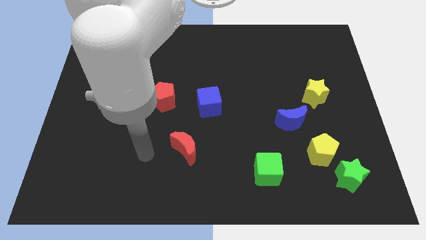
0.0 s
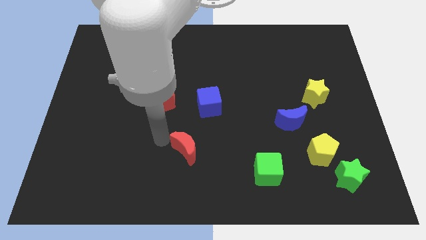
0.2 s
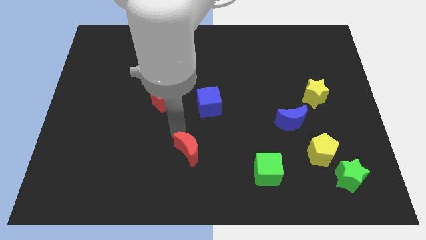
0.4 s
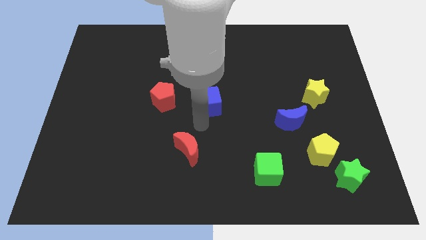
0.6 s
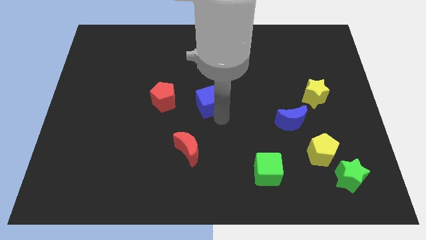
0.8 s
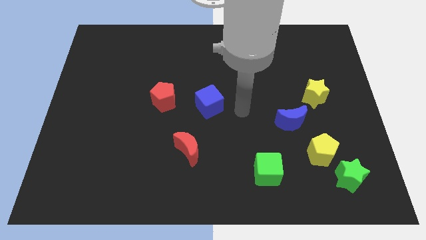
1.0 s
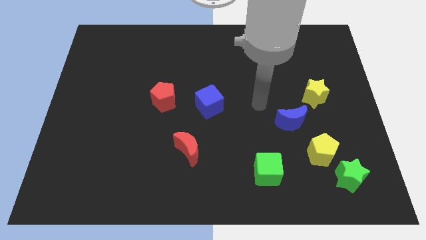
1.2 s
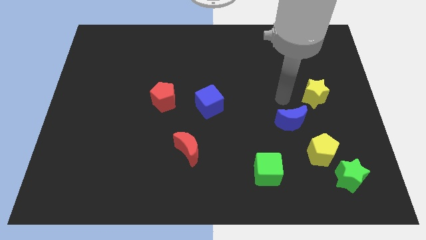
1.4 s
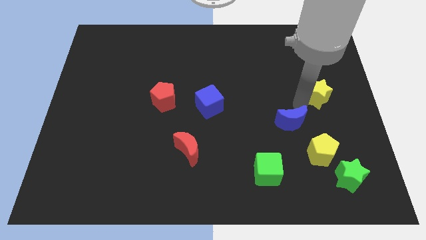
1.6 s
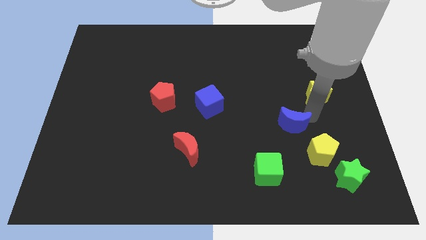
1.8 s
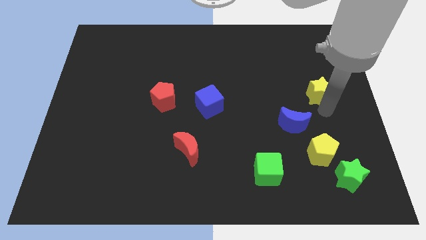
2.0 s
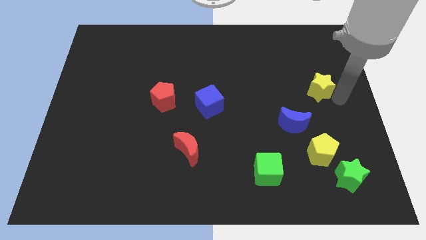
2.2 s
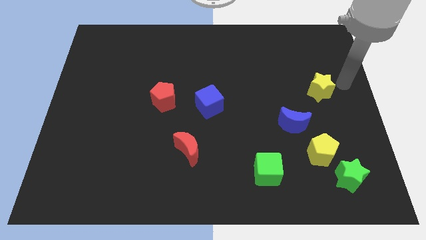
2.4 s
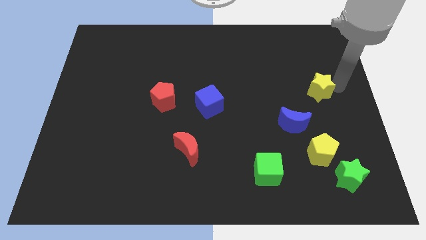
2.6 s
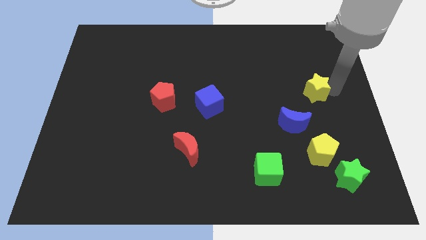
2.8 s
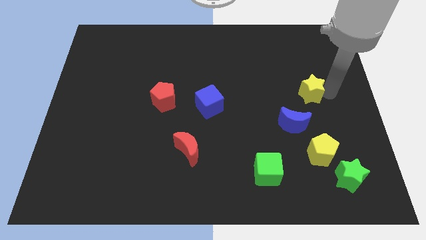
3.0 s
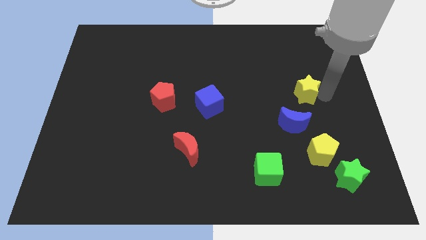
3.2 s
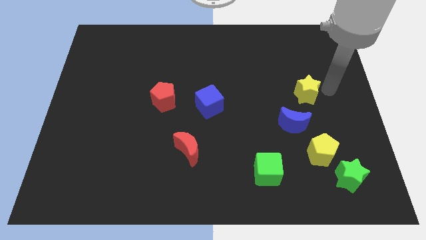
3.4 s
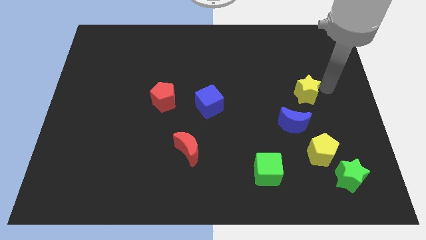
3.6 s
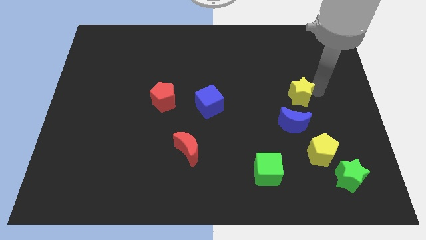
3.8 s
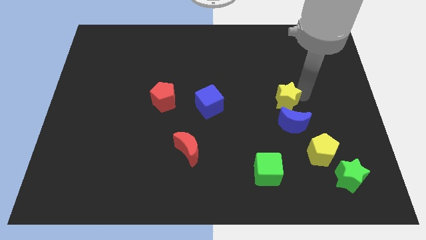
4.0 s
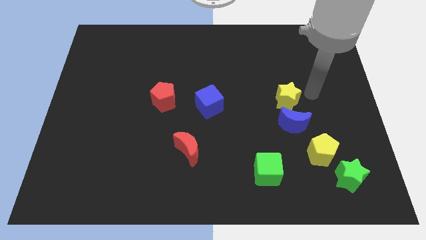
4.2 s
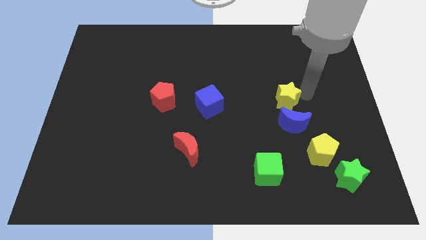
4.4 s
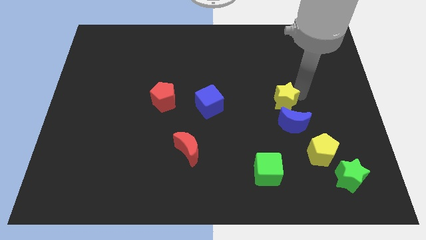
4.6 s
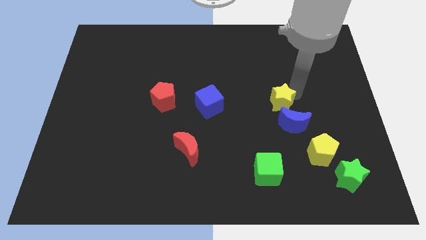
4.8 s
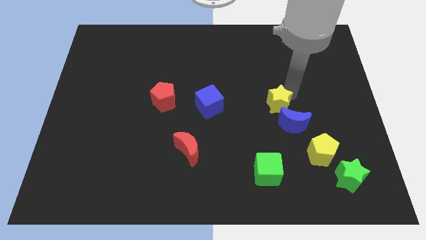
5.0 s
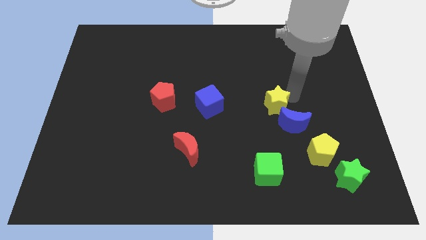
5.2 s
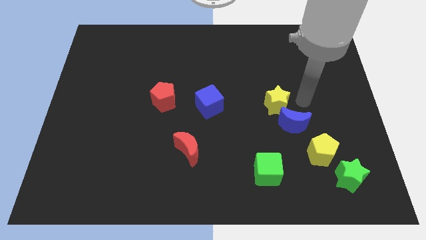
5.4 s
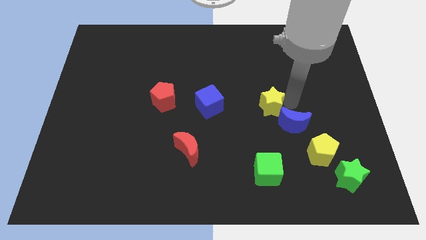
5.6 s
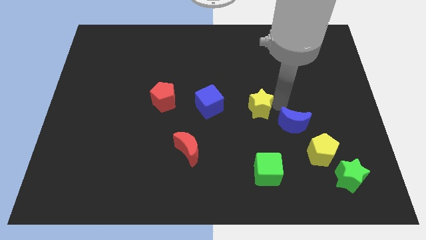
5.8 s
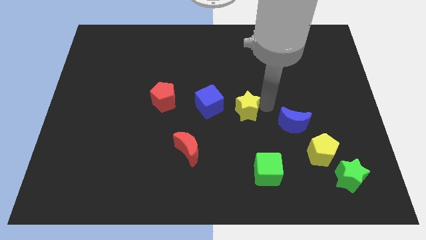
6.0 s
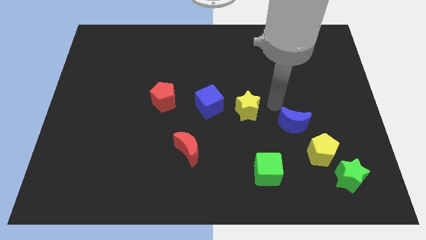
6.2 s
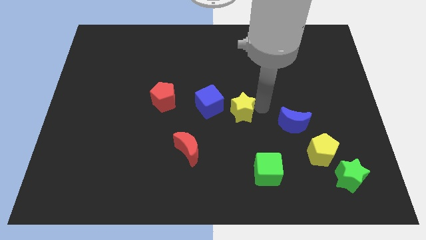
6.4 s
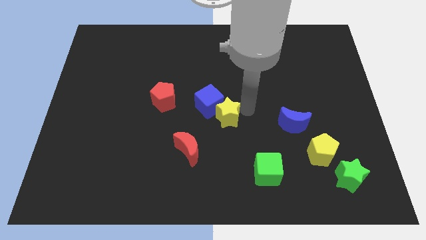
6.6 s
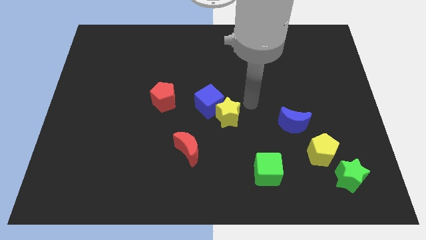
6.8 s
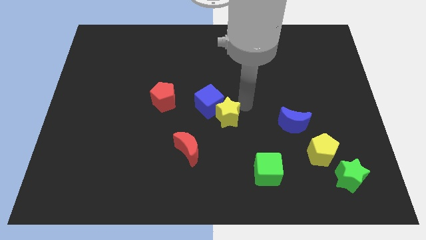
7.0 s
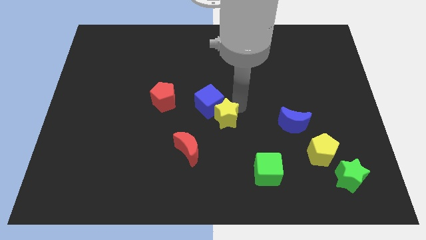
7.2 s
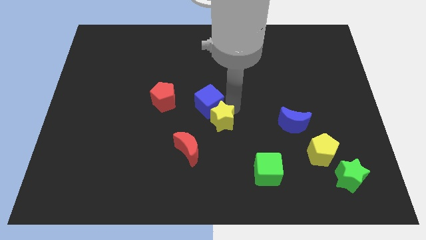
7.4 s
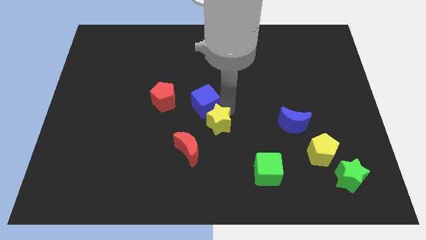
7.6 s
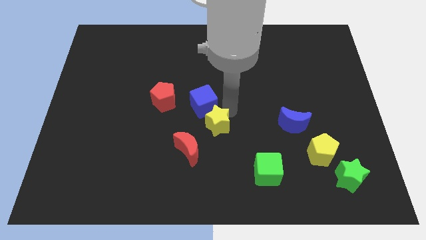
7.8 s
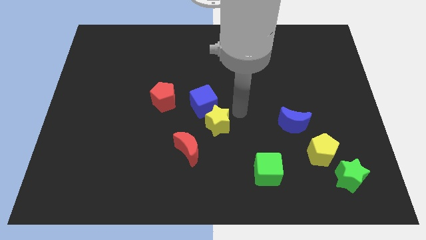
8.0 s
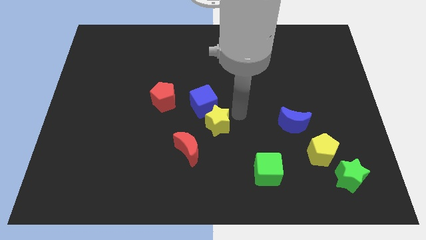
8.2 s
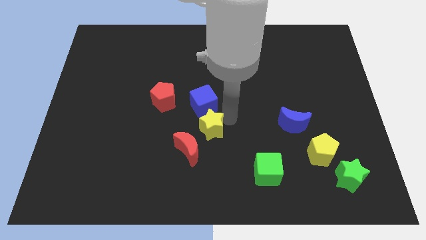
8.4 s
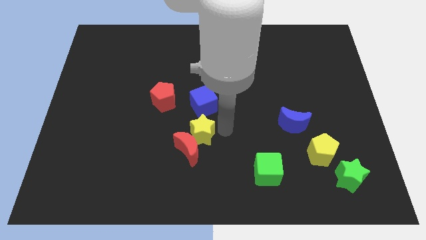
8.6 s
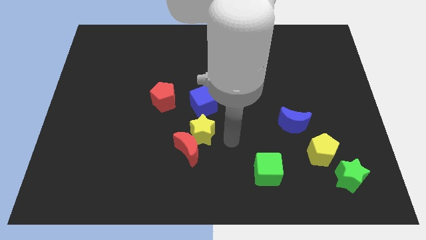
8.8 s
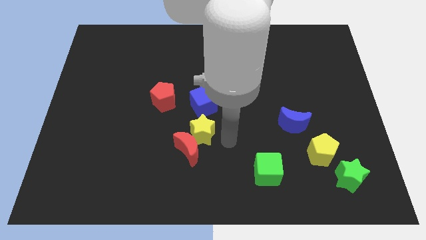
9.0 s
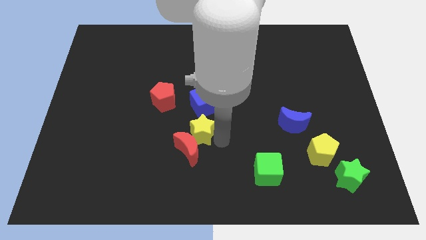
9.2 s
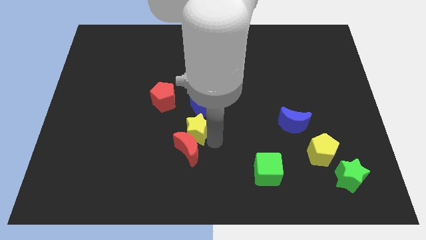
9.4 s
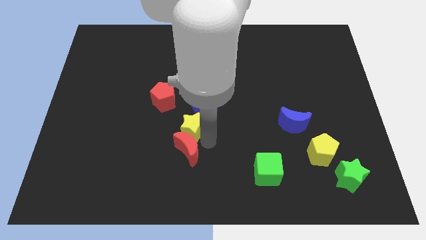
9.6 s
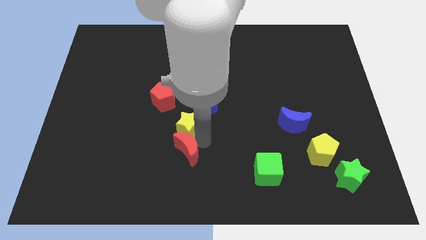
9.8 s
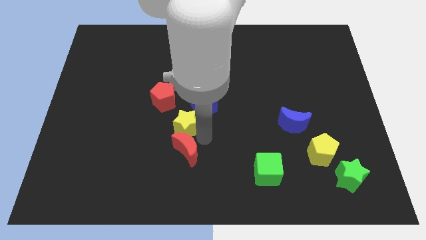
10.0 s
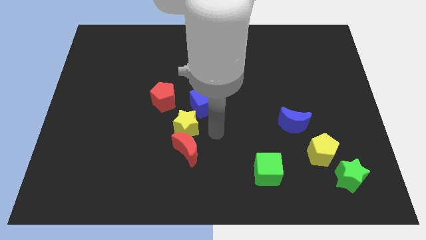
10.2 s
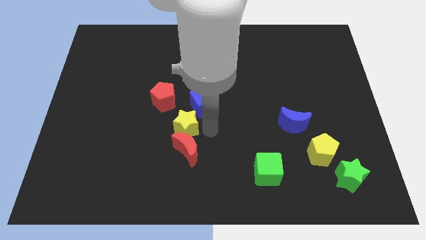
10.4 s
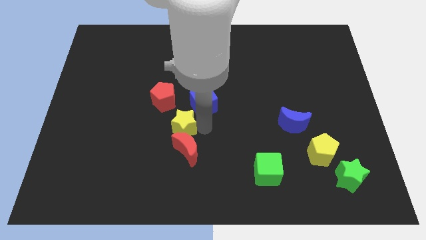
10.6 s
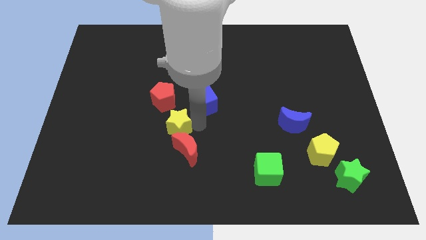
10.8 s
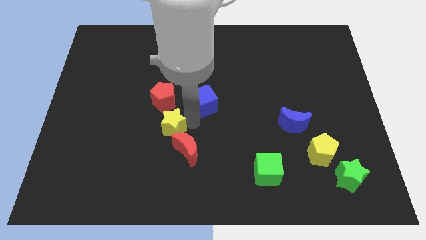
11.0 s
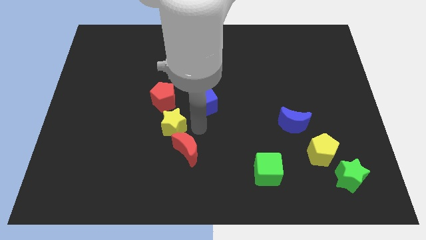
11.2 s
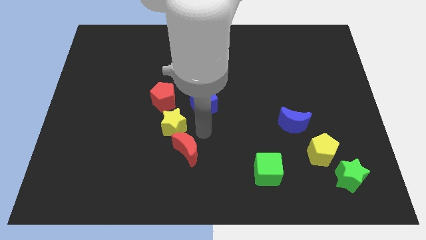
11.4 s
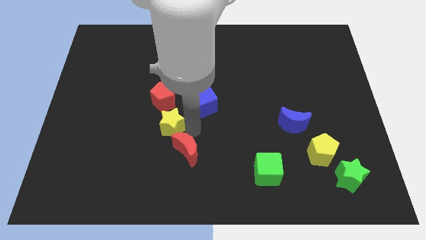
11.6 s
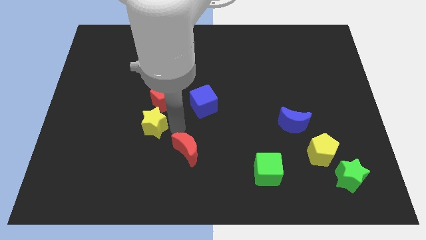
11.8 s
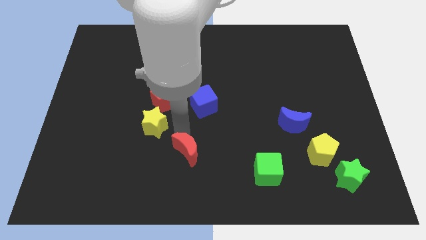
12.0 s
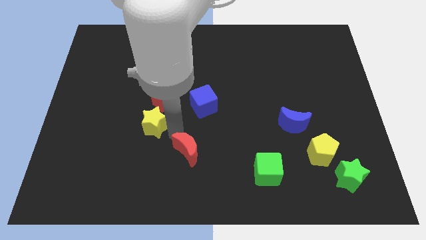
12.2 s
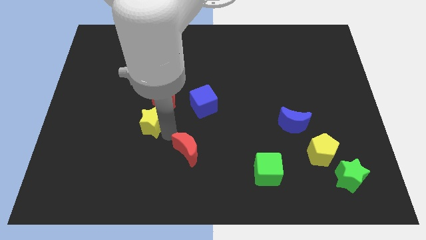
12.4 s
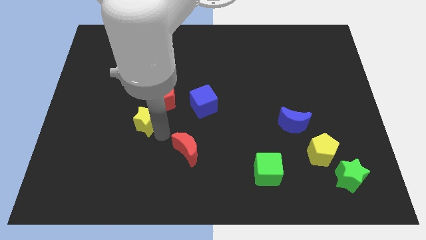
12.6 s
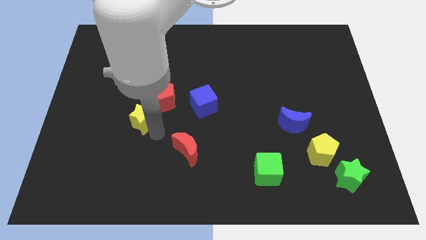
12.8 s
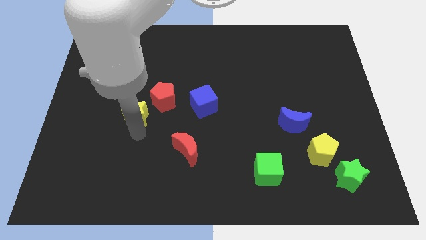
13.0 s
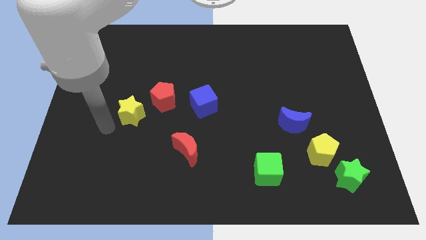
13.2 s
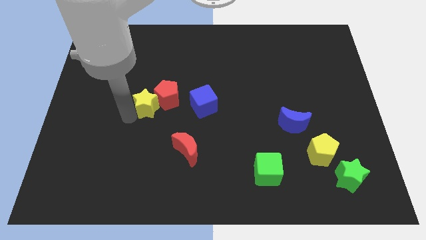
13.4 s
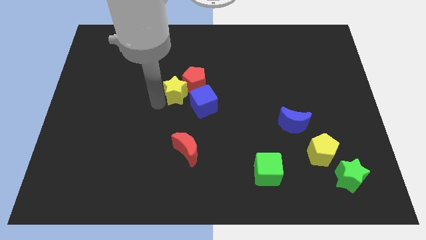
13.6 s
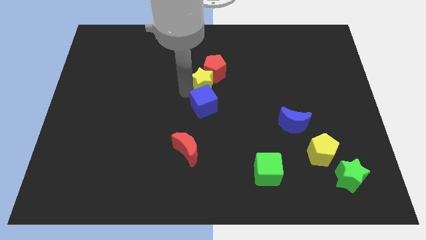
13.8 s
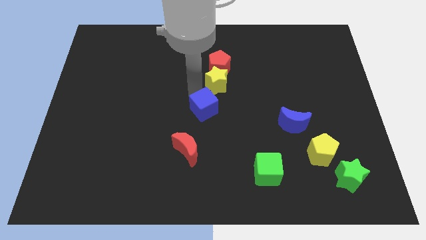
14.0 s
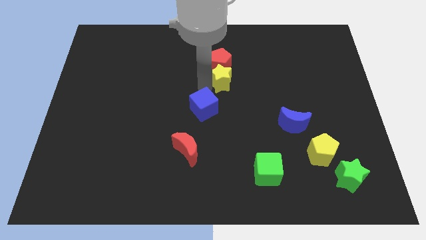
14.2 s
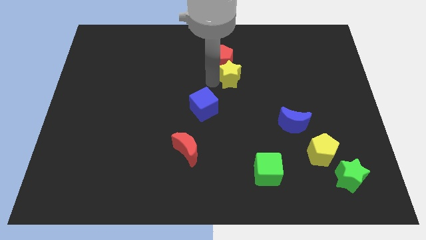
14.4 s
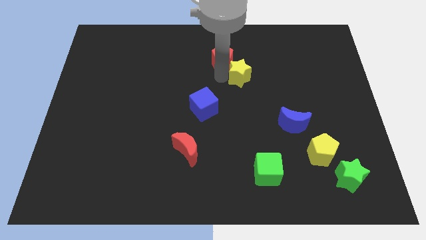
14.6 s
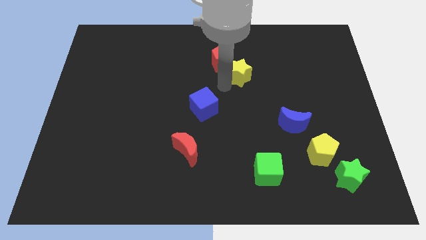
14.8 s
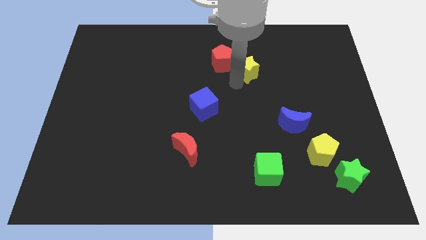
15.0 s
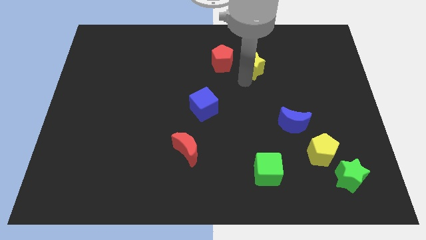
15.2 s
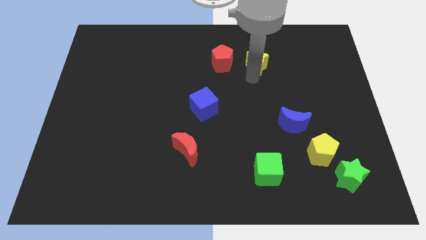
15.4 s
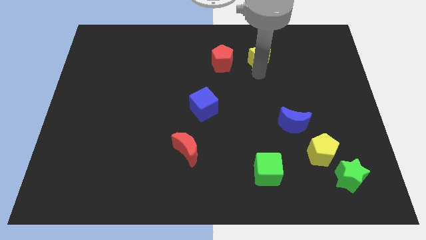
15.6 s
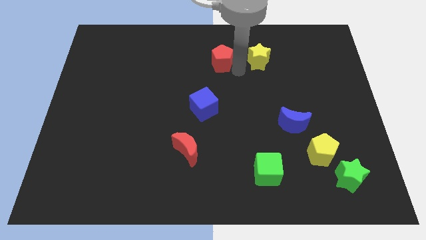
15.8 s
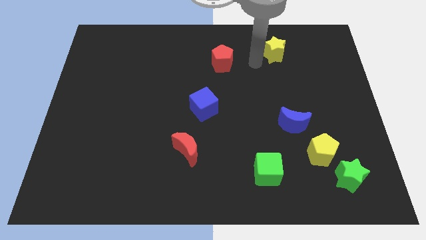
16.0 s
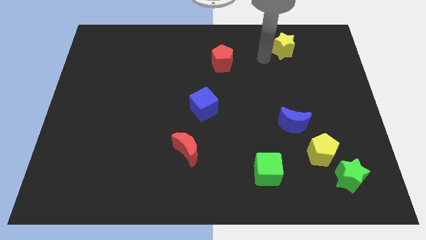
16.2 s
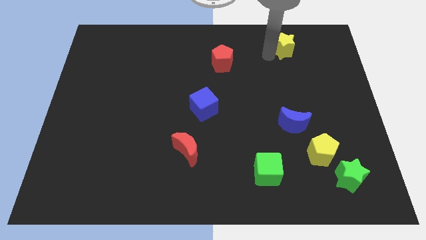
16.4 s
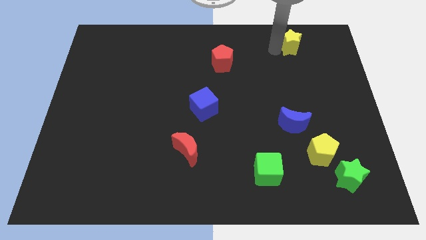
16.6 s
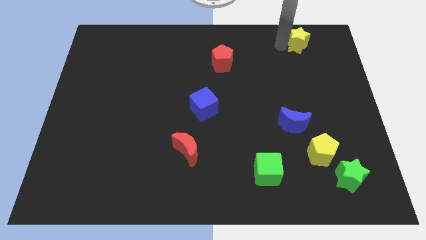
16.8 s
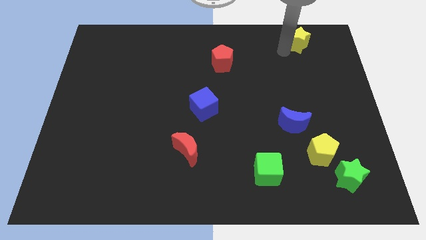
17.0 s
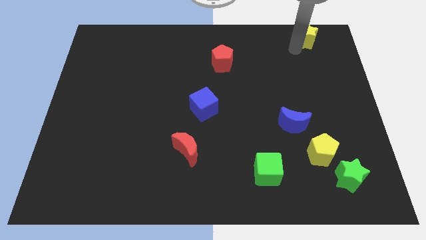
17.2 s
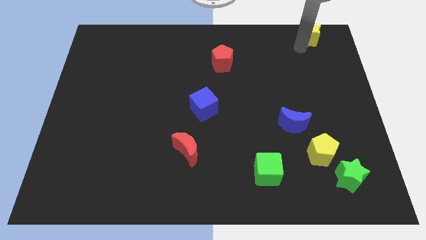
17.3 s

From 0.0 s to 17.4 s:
push the yellow star to the top right
